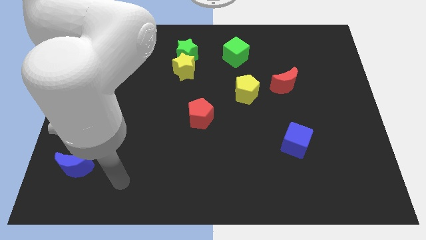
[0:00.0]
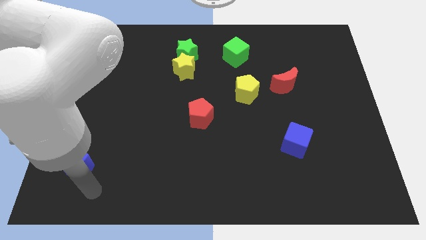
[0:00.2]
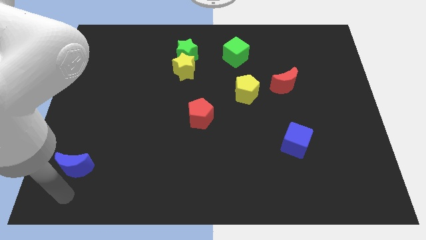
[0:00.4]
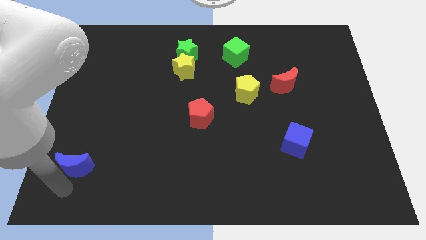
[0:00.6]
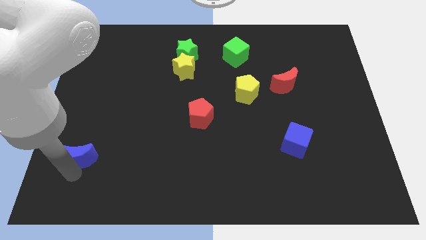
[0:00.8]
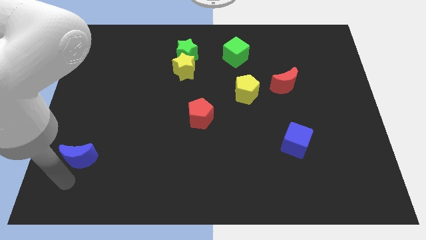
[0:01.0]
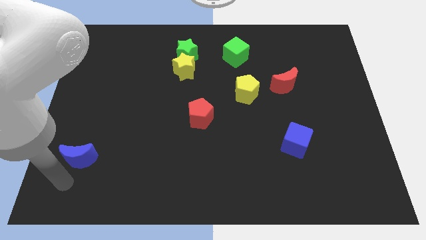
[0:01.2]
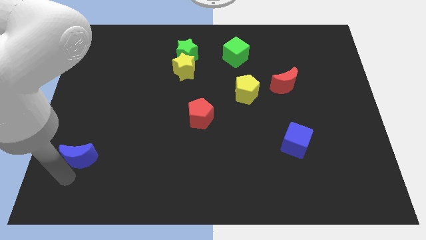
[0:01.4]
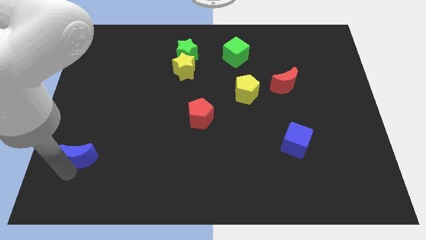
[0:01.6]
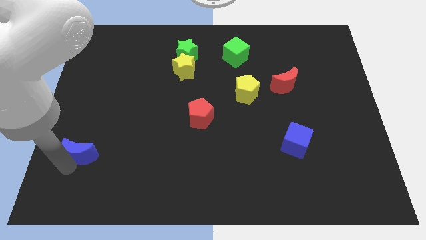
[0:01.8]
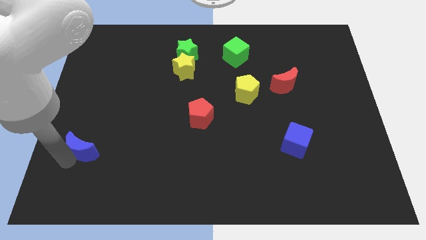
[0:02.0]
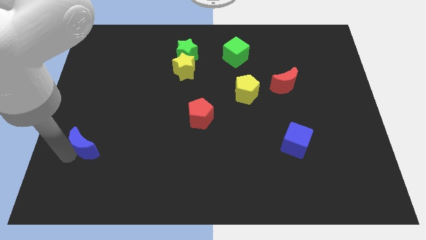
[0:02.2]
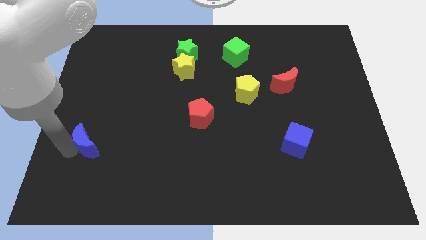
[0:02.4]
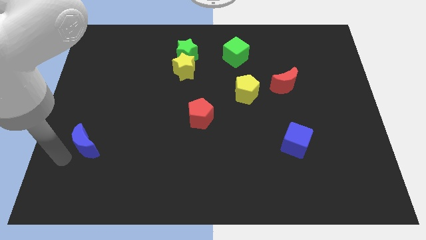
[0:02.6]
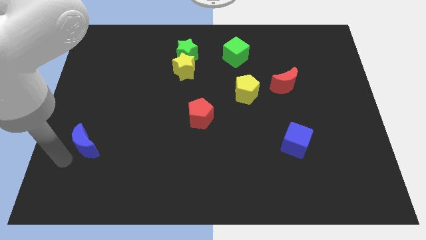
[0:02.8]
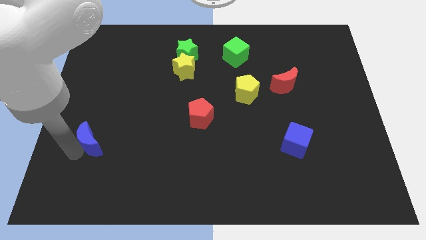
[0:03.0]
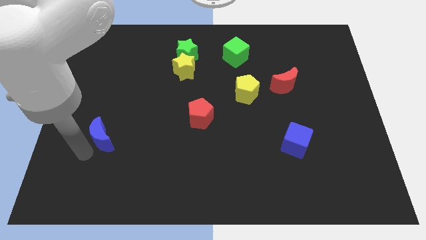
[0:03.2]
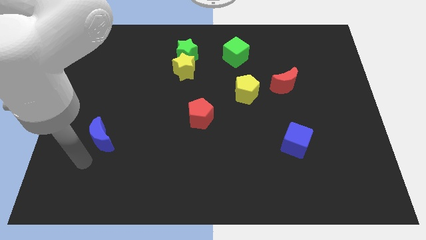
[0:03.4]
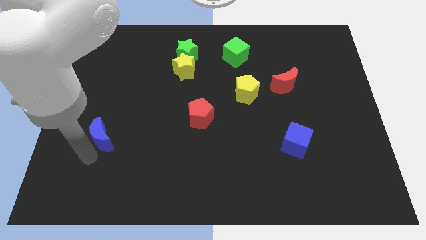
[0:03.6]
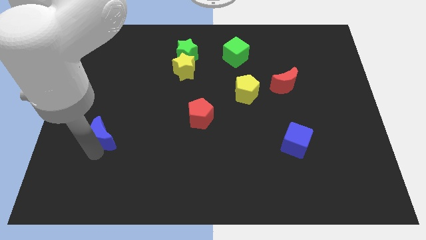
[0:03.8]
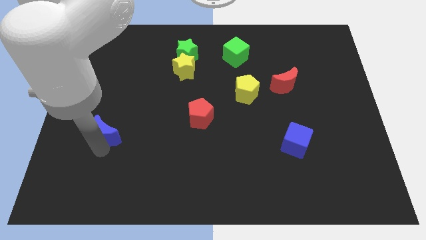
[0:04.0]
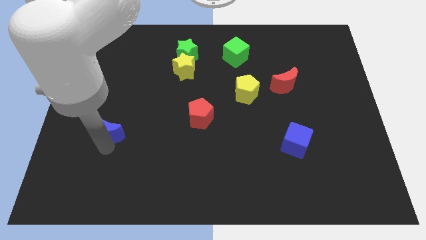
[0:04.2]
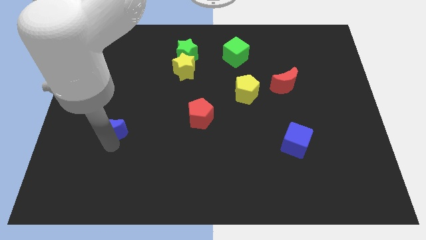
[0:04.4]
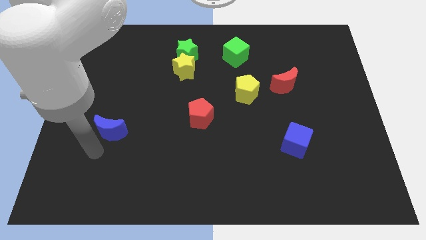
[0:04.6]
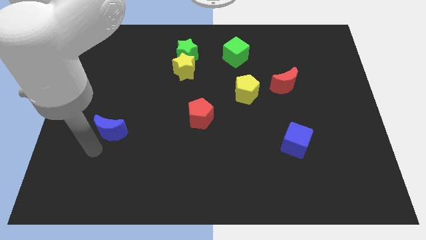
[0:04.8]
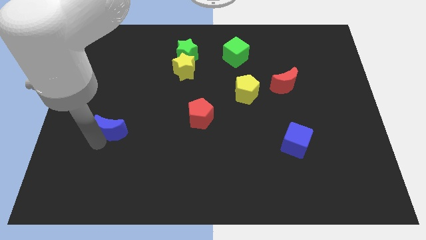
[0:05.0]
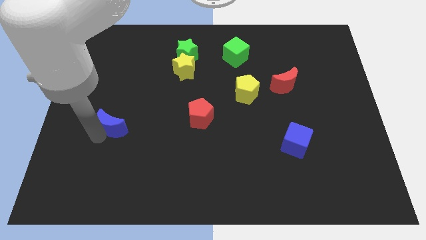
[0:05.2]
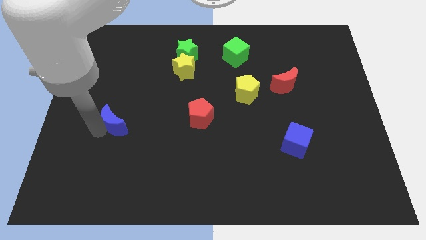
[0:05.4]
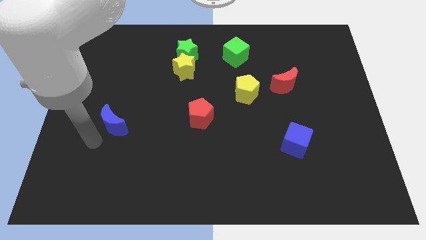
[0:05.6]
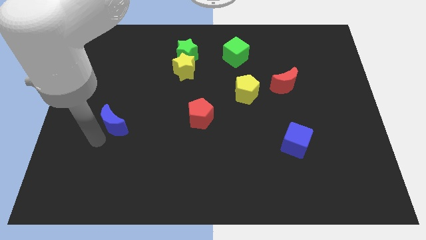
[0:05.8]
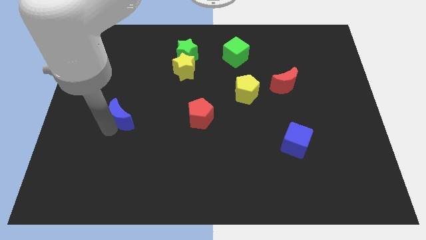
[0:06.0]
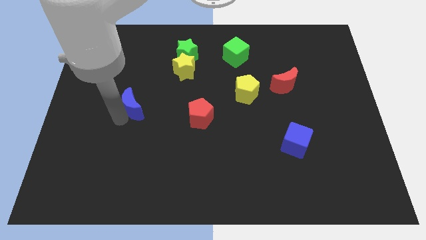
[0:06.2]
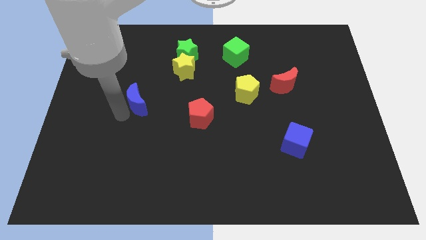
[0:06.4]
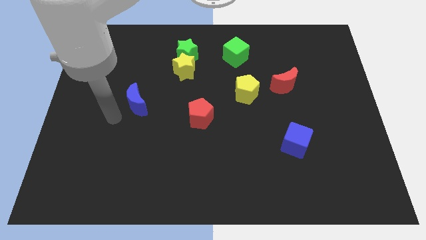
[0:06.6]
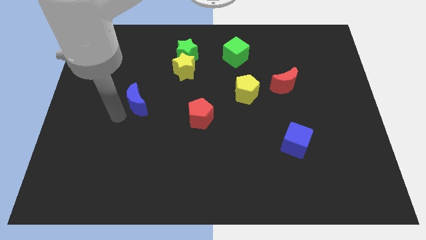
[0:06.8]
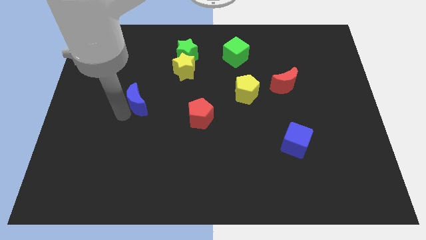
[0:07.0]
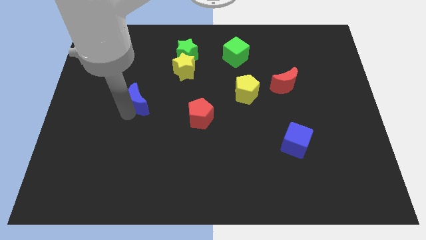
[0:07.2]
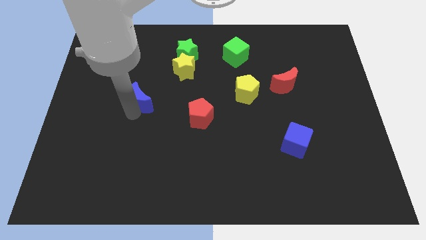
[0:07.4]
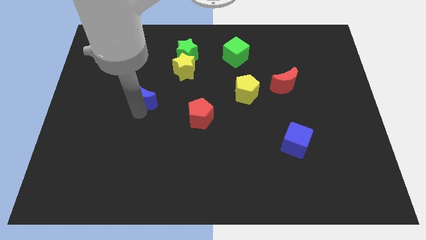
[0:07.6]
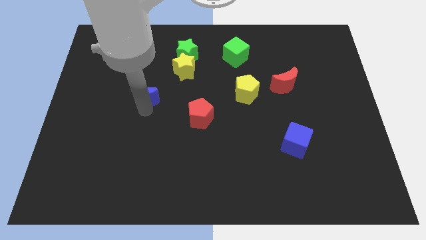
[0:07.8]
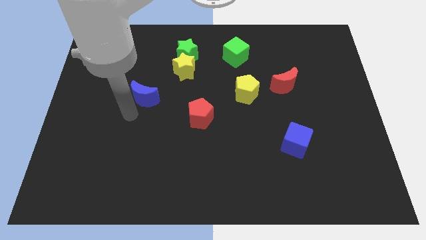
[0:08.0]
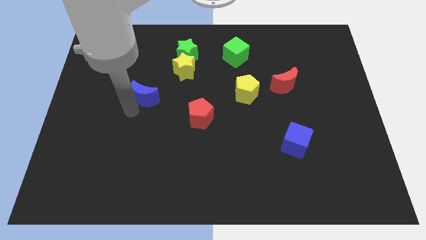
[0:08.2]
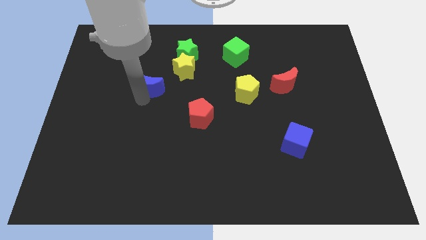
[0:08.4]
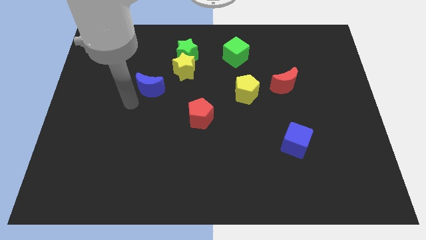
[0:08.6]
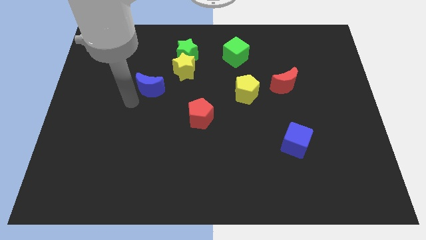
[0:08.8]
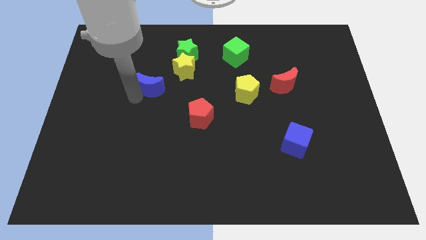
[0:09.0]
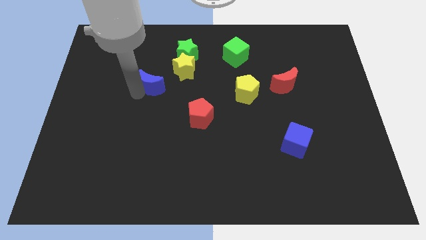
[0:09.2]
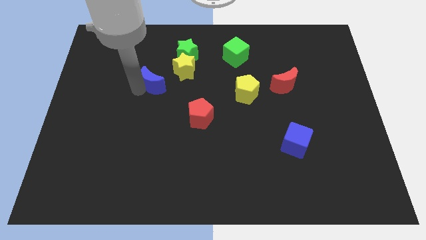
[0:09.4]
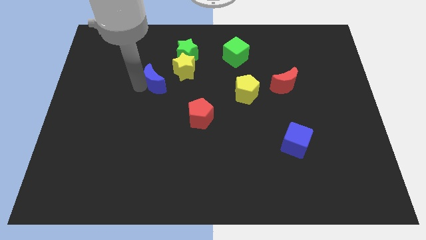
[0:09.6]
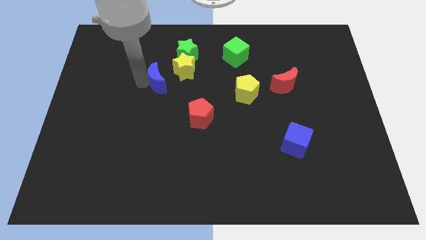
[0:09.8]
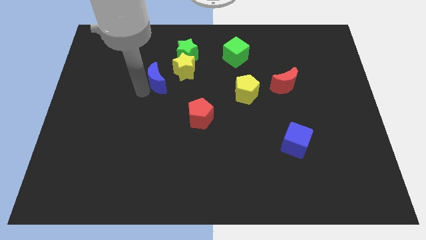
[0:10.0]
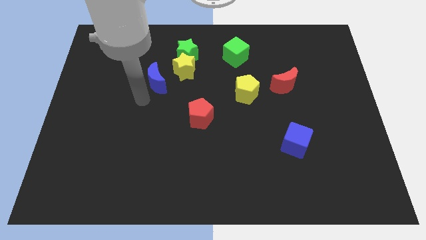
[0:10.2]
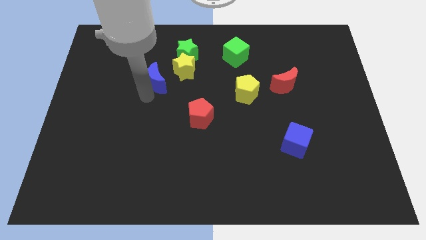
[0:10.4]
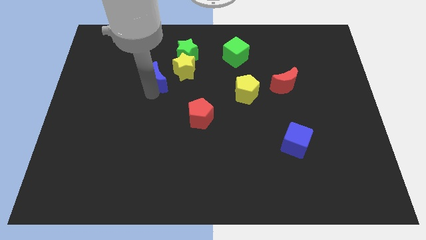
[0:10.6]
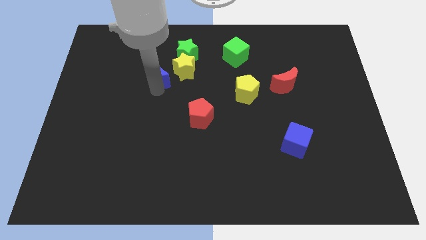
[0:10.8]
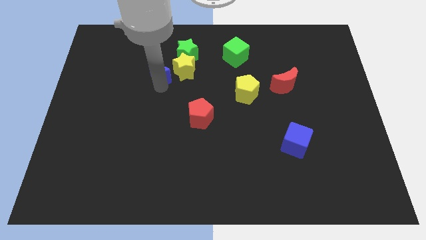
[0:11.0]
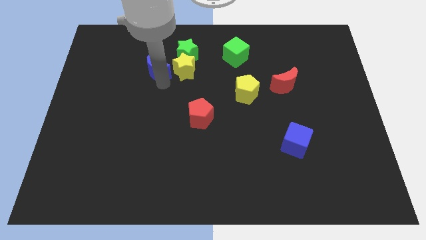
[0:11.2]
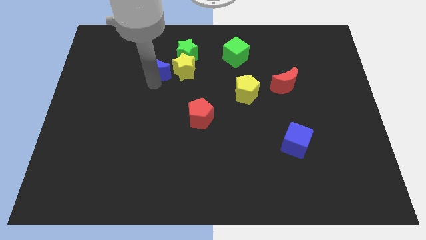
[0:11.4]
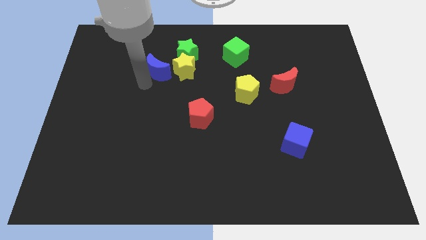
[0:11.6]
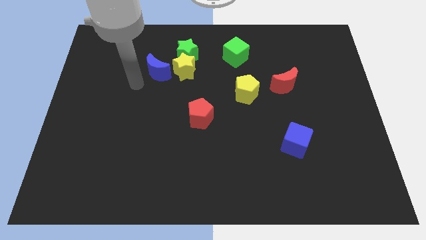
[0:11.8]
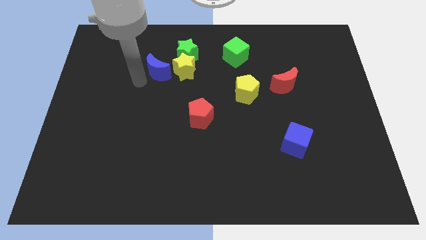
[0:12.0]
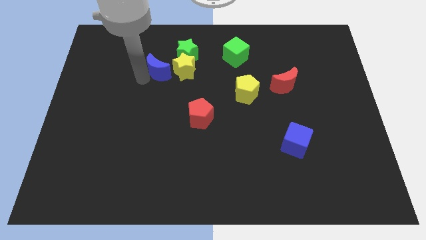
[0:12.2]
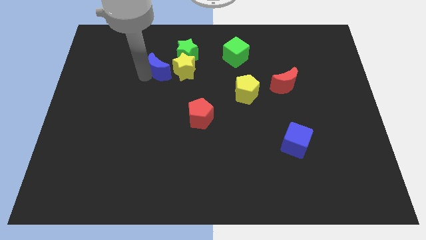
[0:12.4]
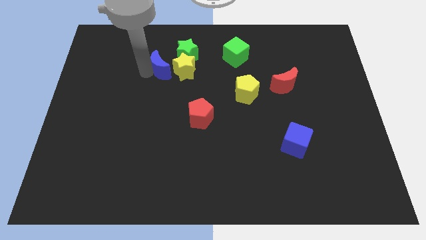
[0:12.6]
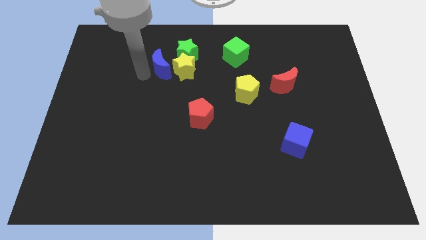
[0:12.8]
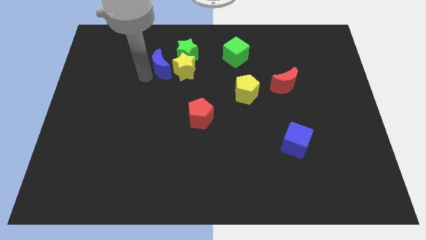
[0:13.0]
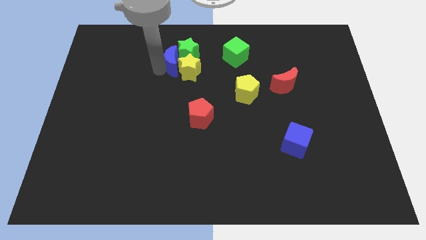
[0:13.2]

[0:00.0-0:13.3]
put the blue moon towards the green star
